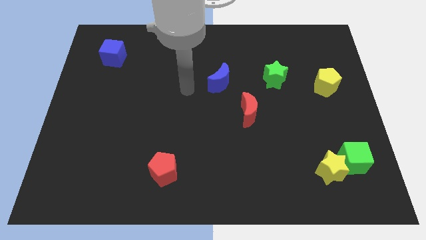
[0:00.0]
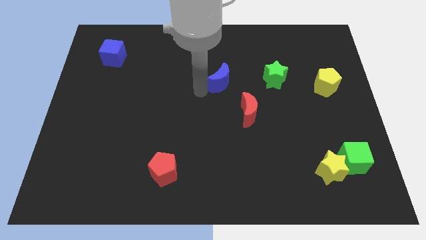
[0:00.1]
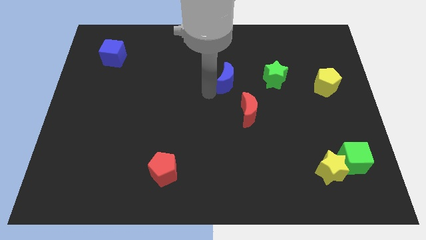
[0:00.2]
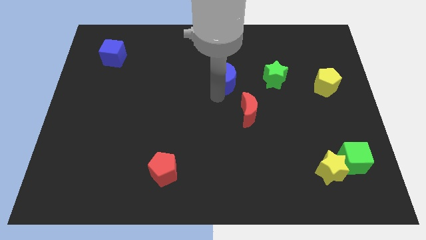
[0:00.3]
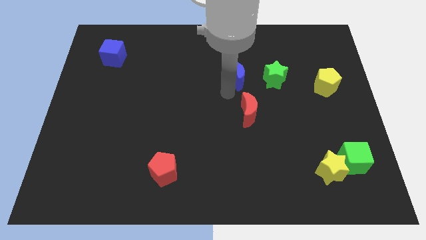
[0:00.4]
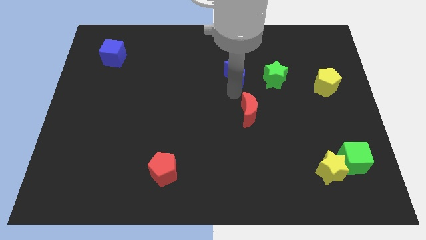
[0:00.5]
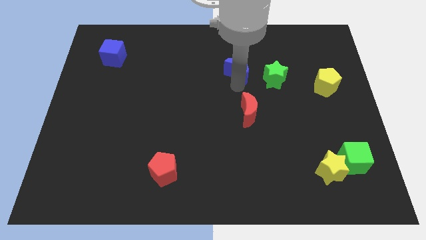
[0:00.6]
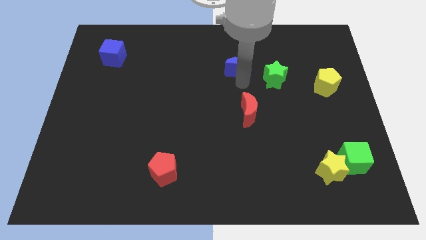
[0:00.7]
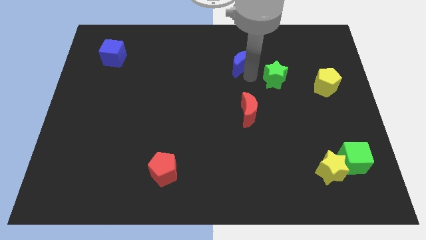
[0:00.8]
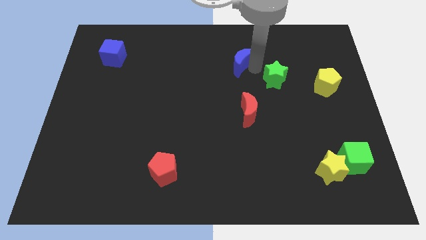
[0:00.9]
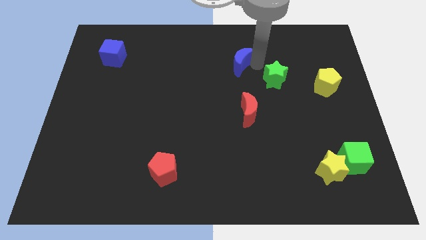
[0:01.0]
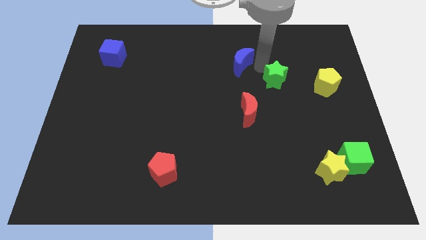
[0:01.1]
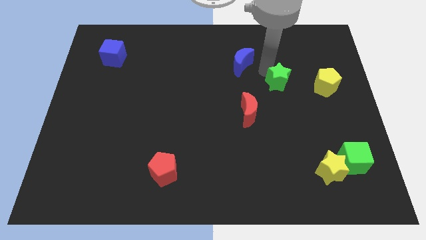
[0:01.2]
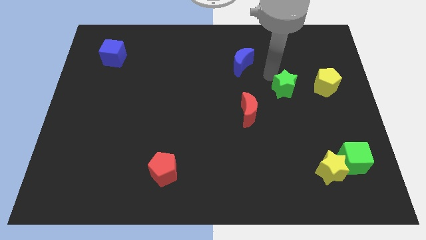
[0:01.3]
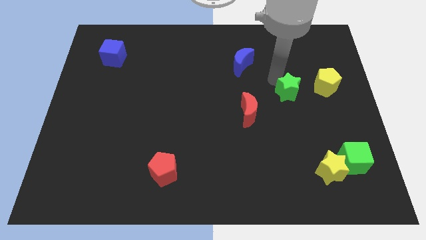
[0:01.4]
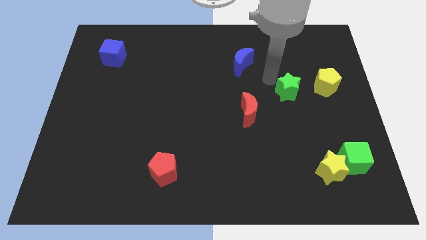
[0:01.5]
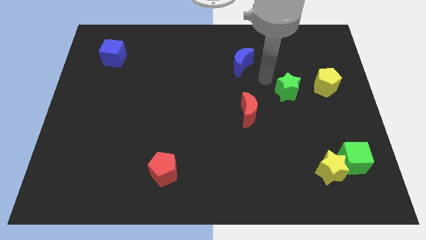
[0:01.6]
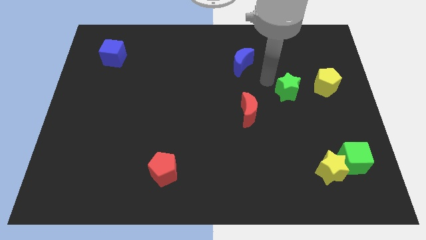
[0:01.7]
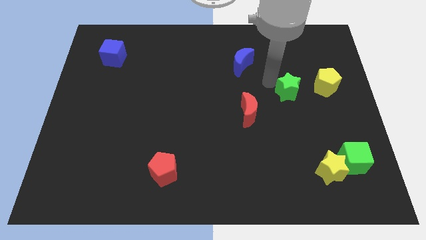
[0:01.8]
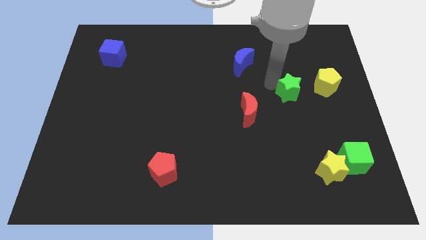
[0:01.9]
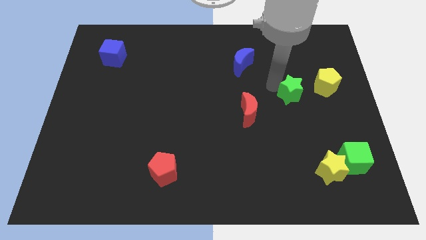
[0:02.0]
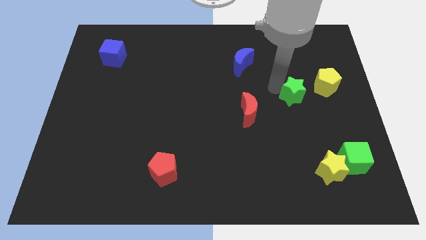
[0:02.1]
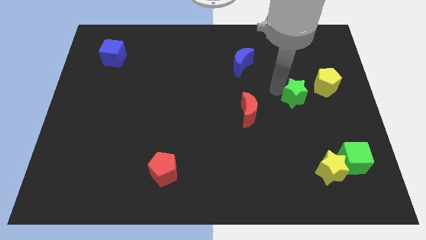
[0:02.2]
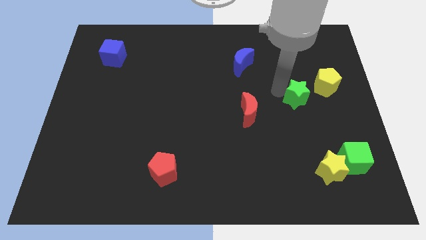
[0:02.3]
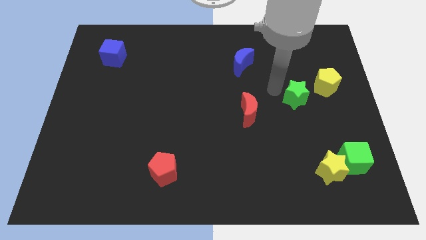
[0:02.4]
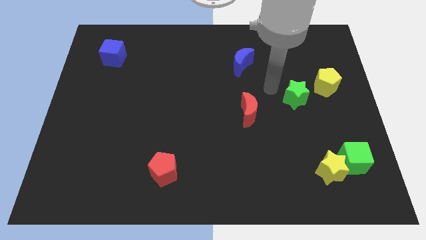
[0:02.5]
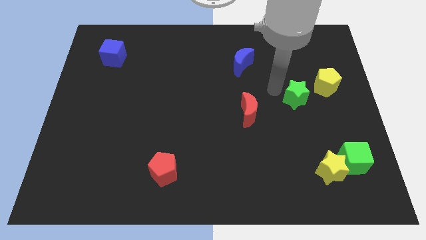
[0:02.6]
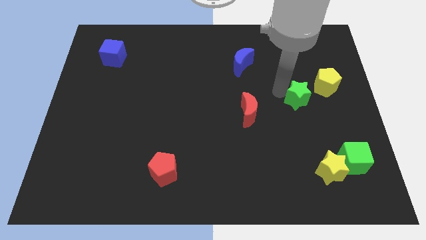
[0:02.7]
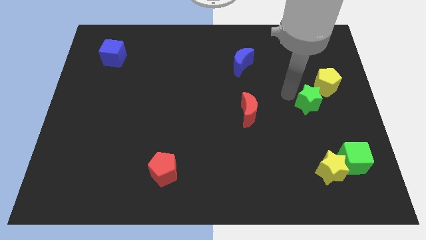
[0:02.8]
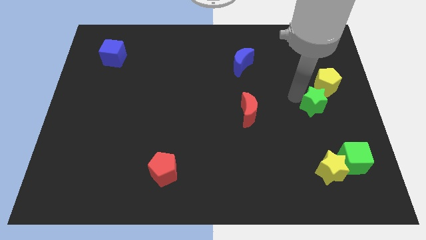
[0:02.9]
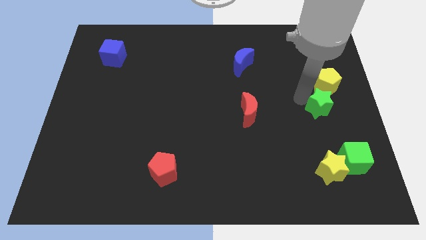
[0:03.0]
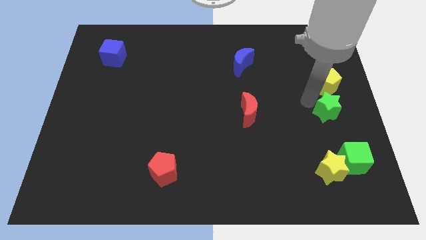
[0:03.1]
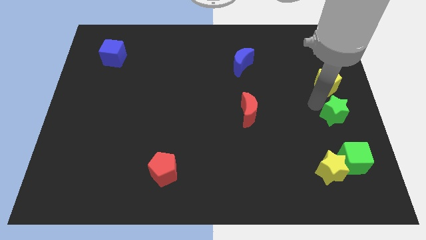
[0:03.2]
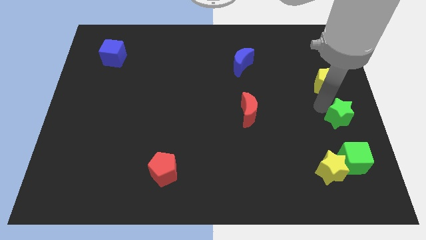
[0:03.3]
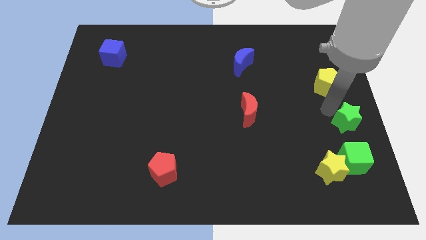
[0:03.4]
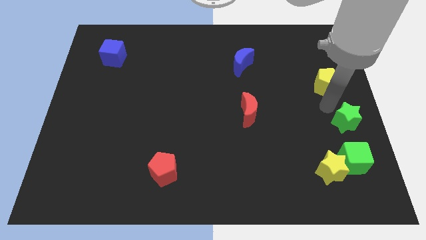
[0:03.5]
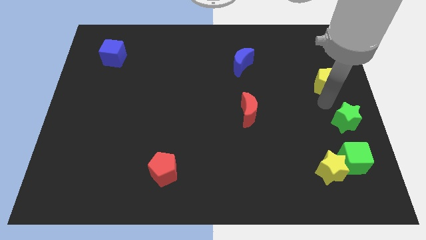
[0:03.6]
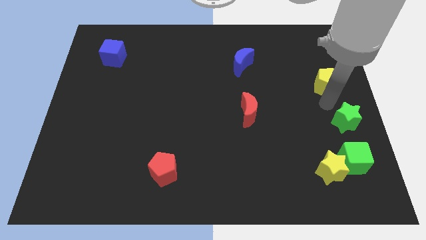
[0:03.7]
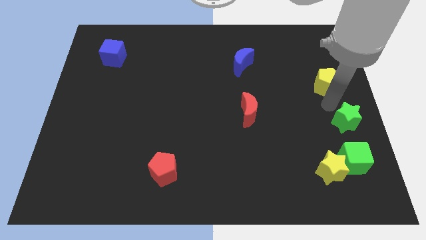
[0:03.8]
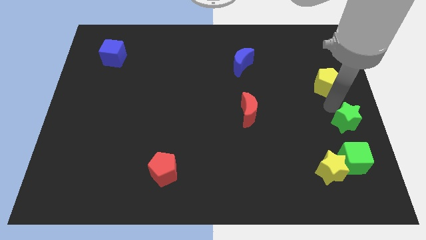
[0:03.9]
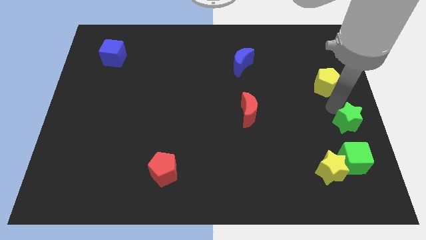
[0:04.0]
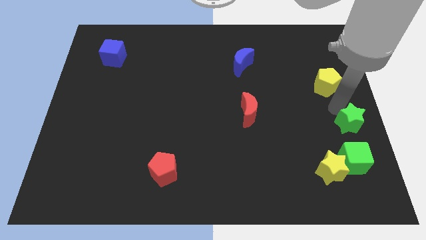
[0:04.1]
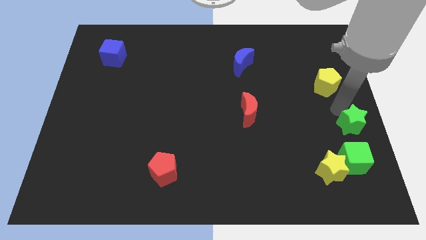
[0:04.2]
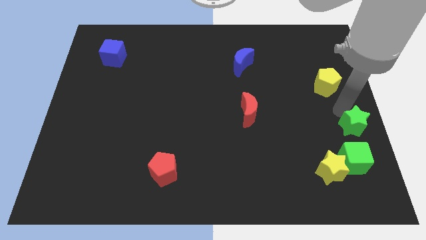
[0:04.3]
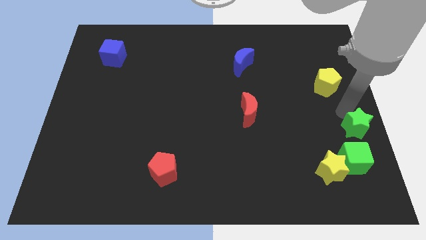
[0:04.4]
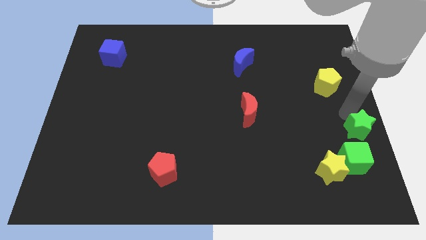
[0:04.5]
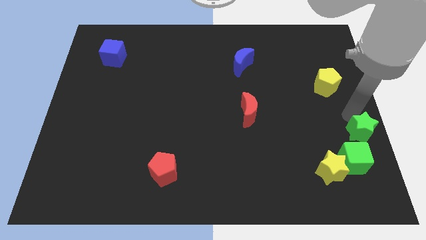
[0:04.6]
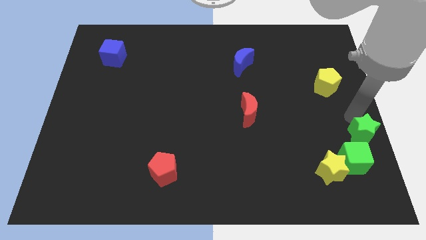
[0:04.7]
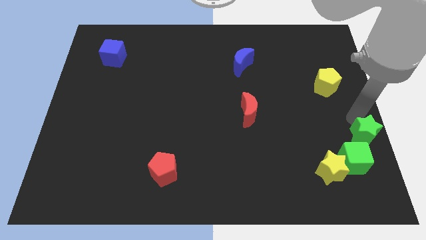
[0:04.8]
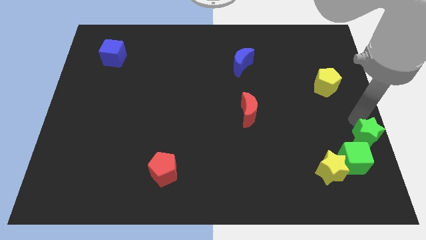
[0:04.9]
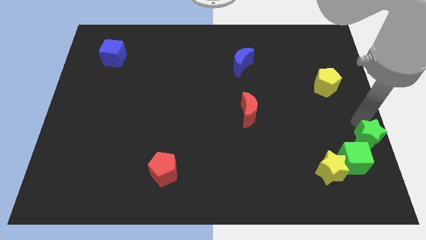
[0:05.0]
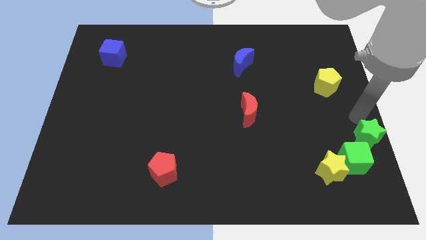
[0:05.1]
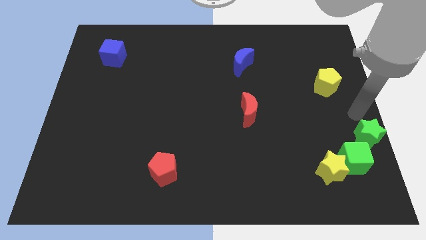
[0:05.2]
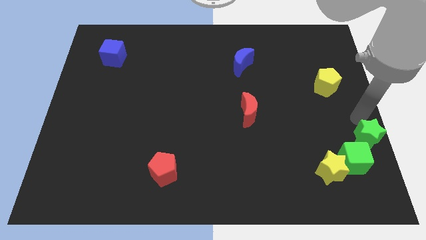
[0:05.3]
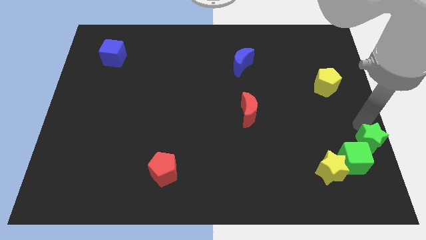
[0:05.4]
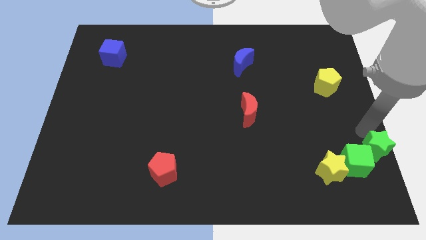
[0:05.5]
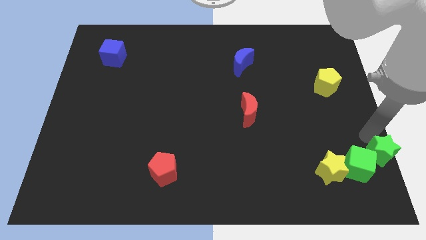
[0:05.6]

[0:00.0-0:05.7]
slide the green star to the bottom right

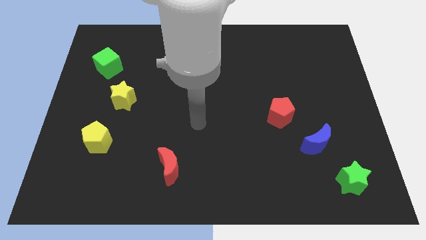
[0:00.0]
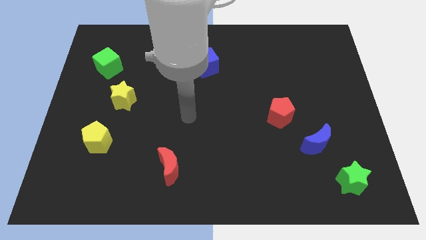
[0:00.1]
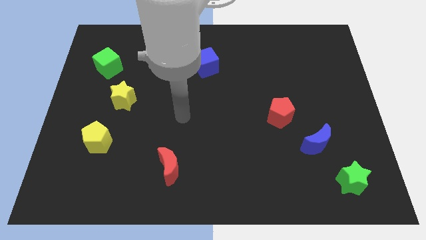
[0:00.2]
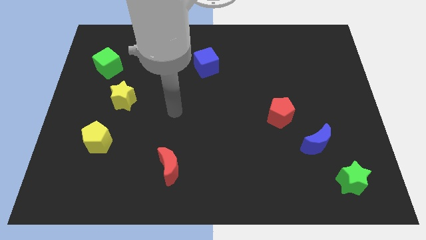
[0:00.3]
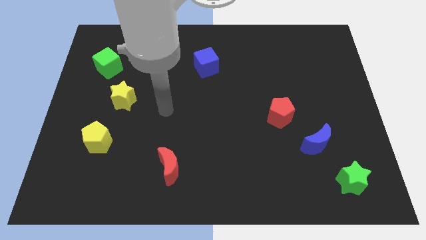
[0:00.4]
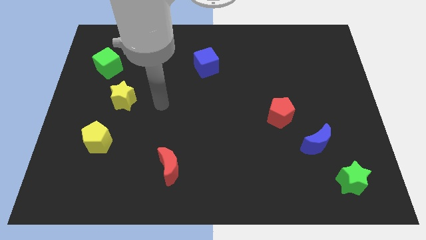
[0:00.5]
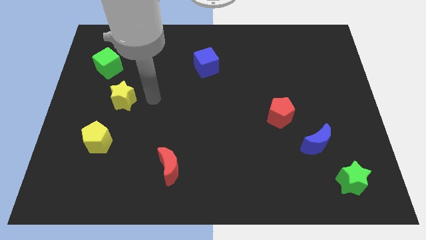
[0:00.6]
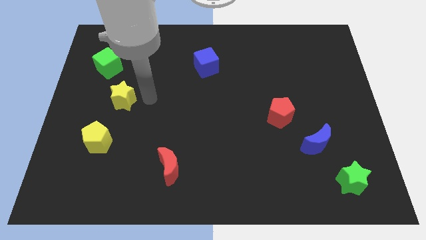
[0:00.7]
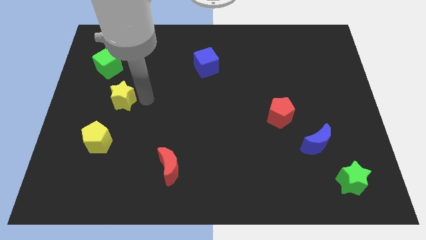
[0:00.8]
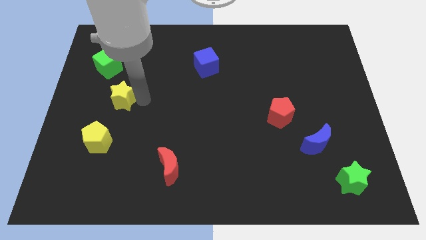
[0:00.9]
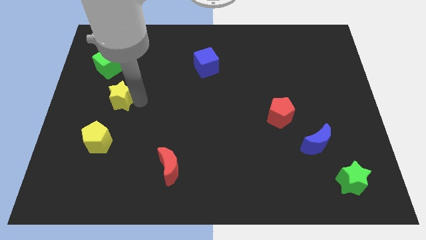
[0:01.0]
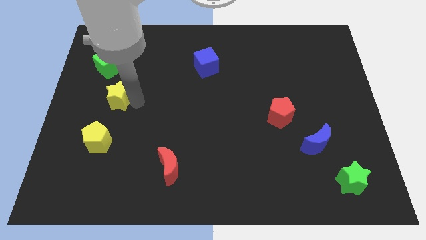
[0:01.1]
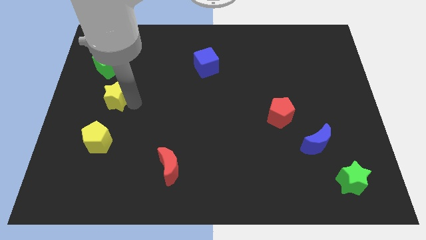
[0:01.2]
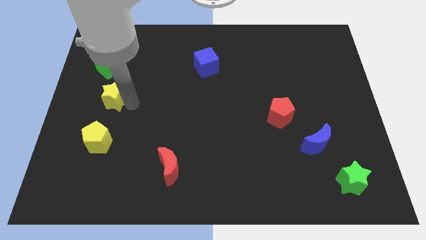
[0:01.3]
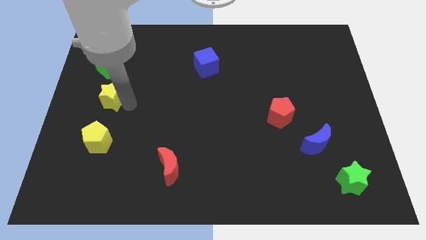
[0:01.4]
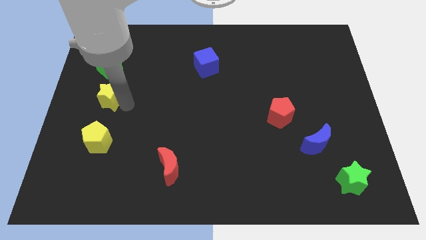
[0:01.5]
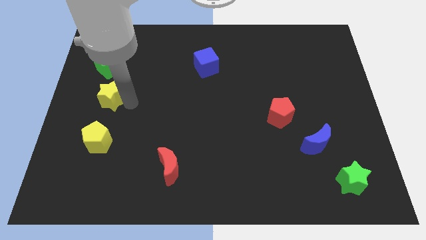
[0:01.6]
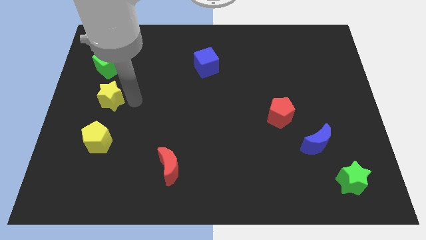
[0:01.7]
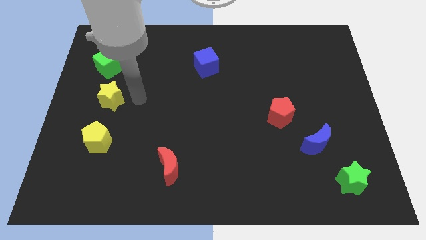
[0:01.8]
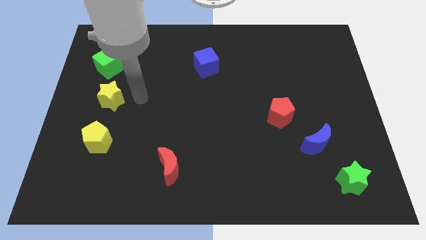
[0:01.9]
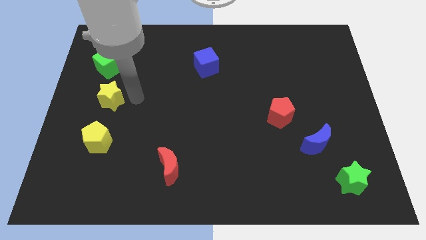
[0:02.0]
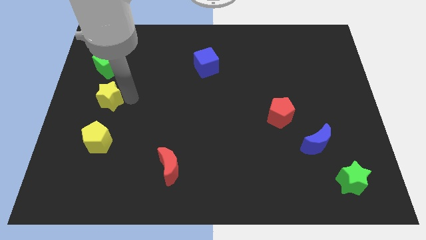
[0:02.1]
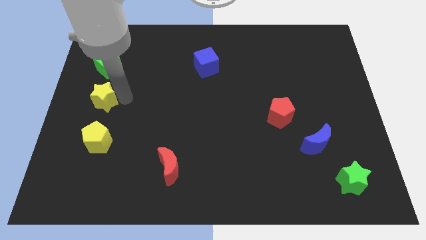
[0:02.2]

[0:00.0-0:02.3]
slide the yellow star to the left side of the board
